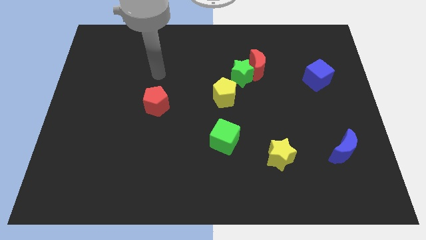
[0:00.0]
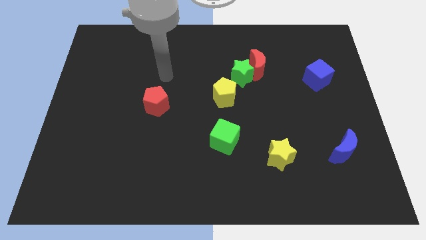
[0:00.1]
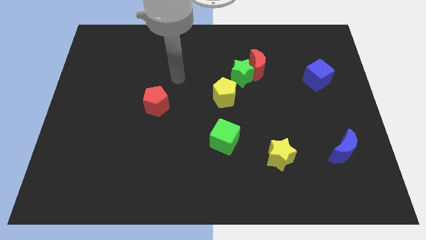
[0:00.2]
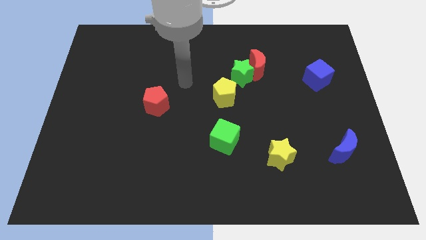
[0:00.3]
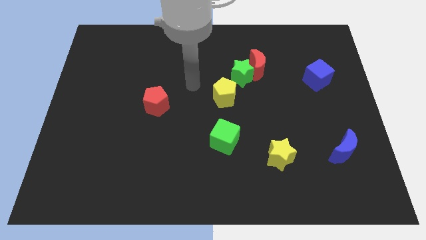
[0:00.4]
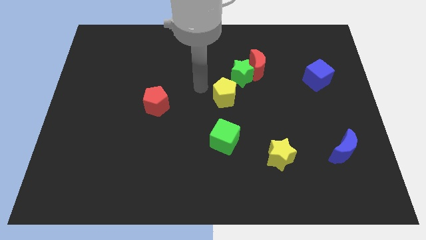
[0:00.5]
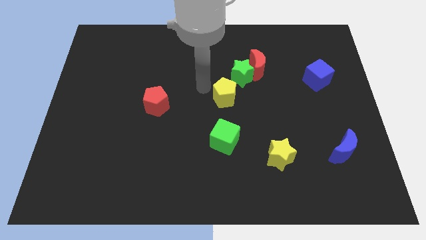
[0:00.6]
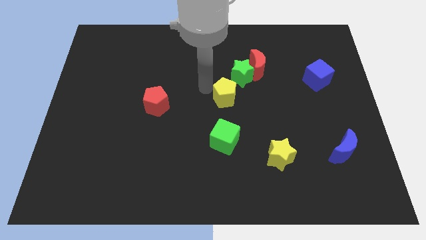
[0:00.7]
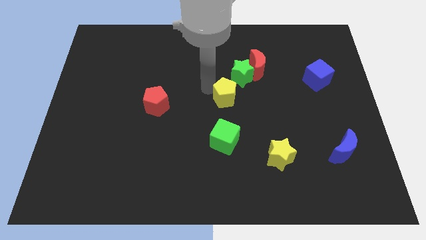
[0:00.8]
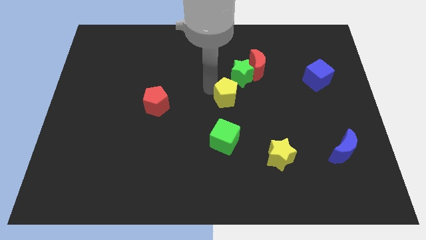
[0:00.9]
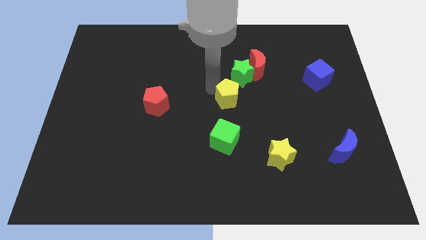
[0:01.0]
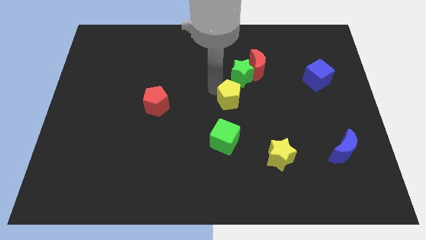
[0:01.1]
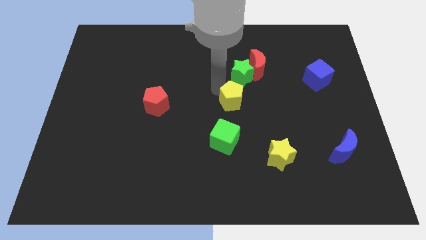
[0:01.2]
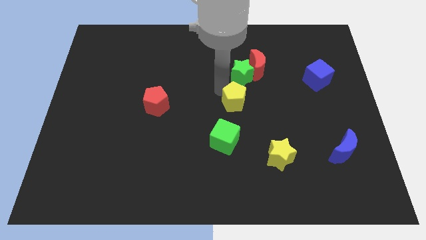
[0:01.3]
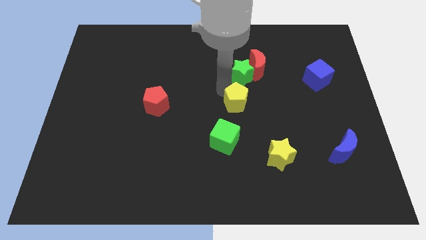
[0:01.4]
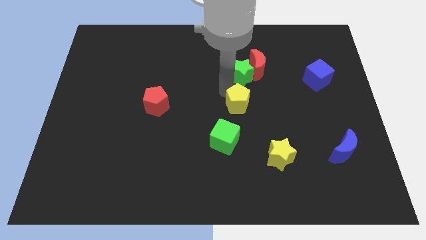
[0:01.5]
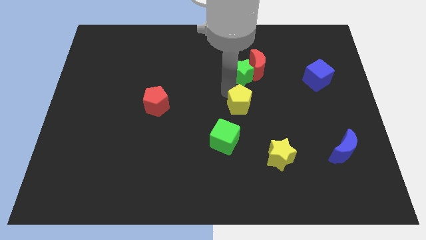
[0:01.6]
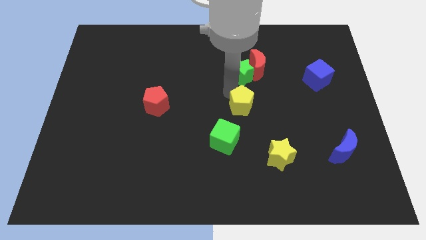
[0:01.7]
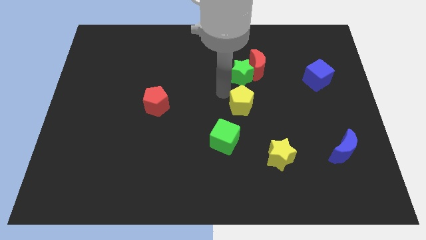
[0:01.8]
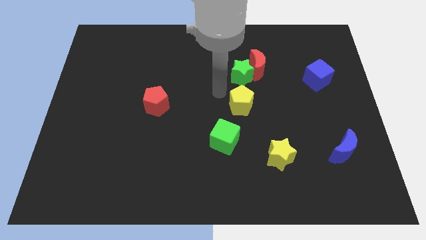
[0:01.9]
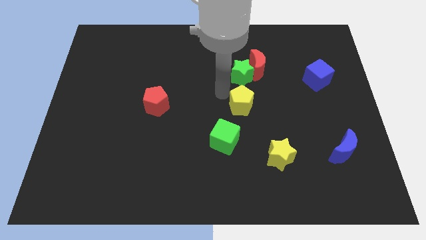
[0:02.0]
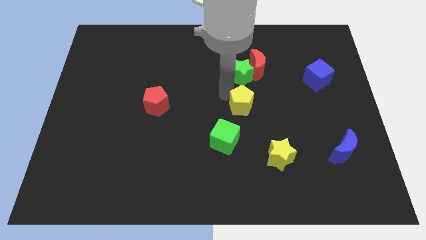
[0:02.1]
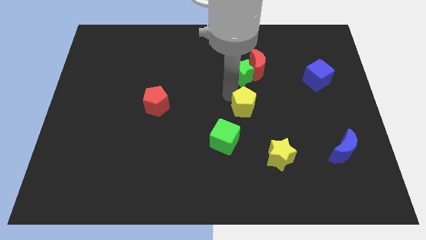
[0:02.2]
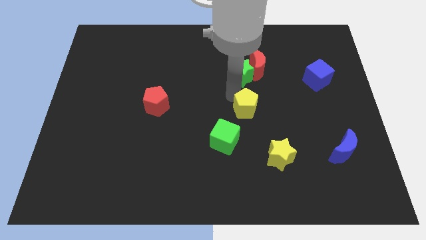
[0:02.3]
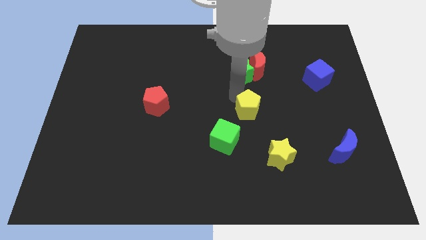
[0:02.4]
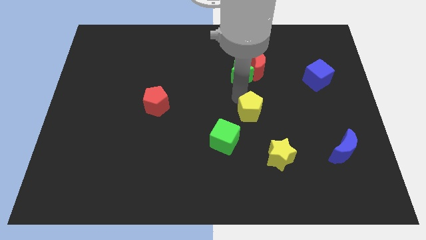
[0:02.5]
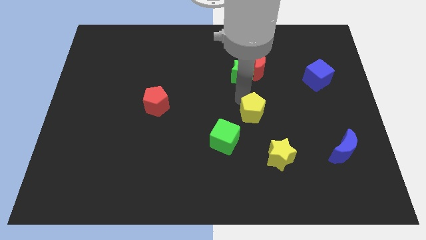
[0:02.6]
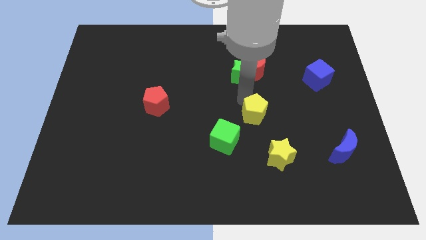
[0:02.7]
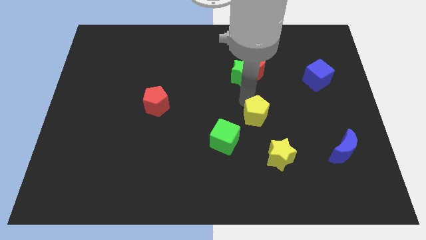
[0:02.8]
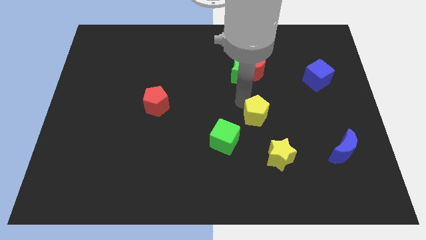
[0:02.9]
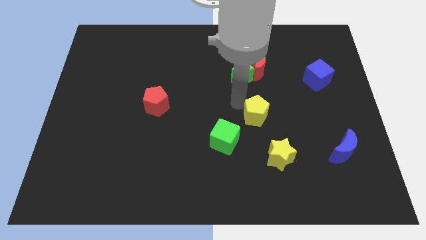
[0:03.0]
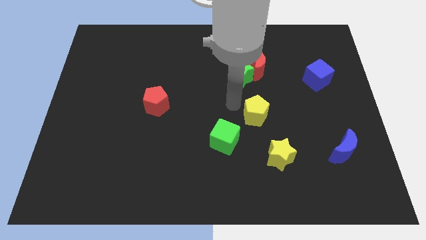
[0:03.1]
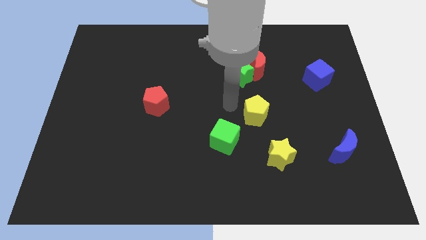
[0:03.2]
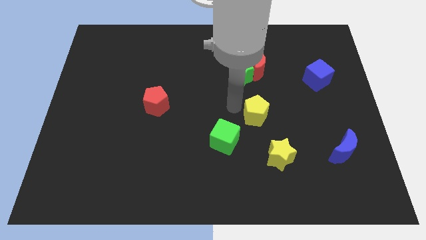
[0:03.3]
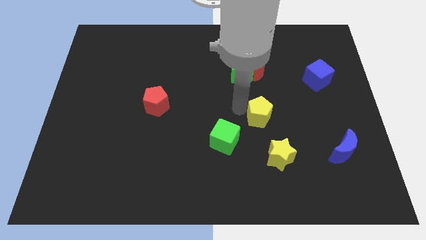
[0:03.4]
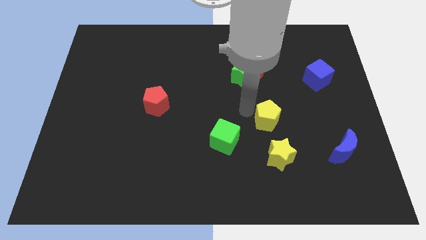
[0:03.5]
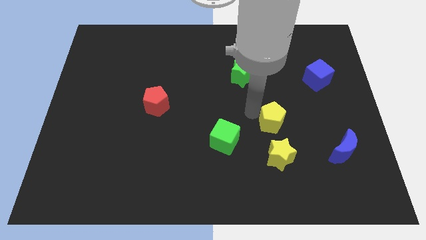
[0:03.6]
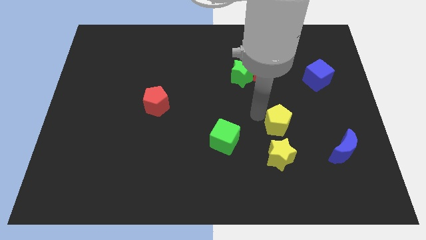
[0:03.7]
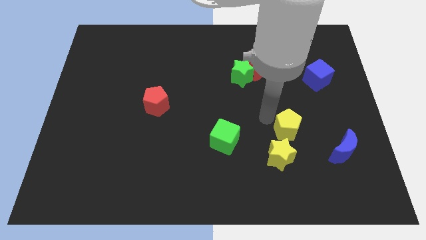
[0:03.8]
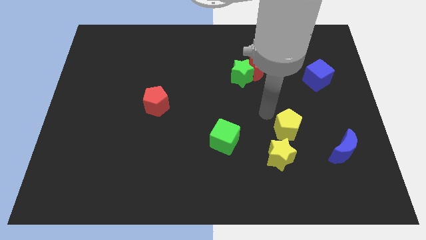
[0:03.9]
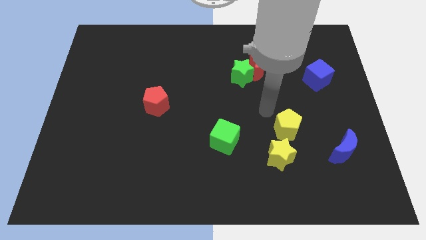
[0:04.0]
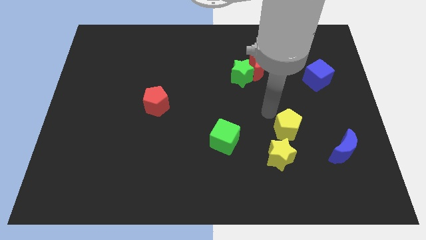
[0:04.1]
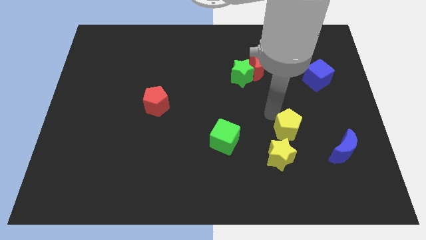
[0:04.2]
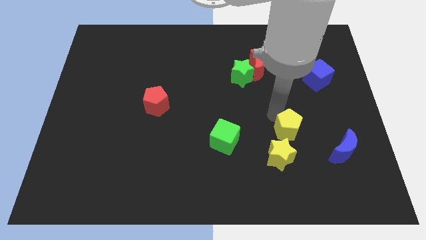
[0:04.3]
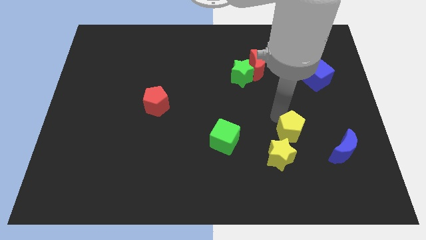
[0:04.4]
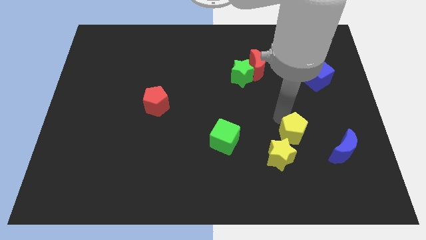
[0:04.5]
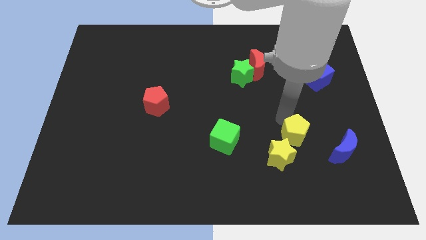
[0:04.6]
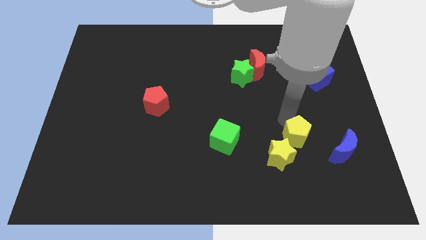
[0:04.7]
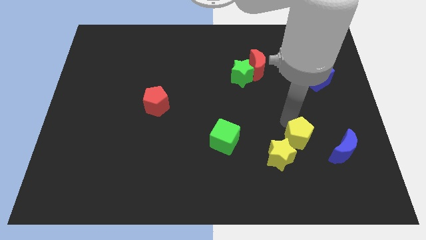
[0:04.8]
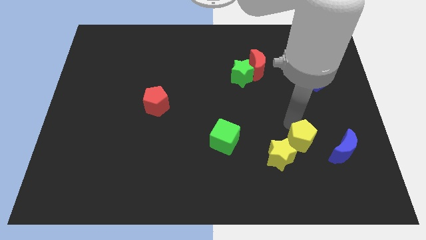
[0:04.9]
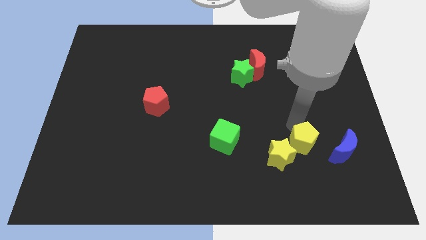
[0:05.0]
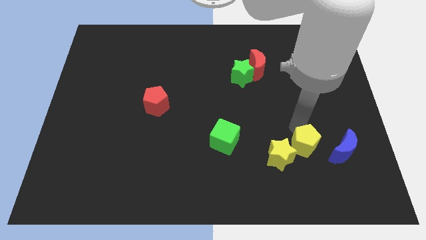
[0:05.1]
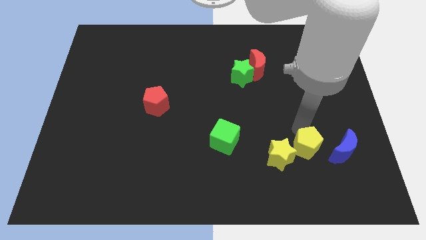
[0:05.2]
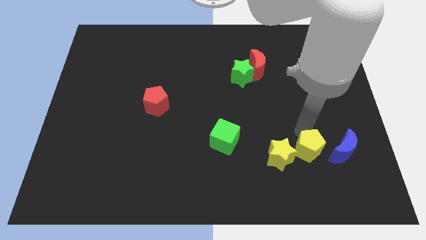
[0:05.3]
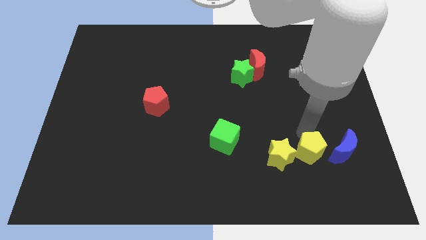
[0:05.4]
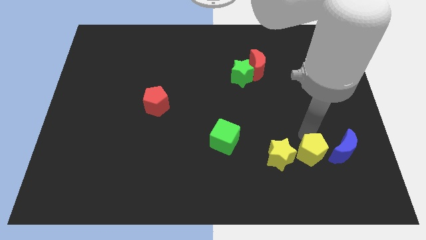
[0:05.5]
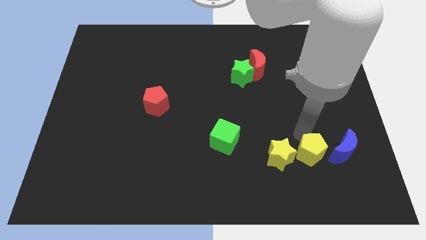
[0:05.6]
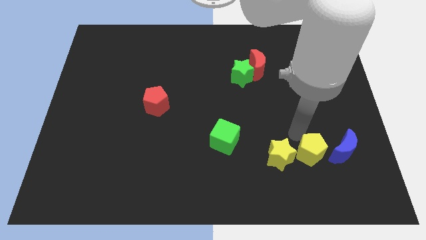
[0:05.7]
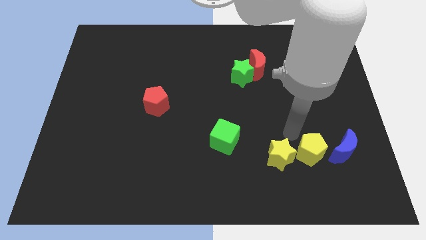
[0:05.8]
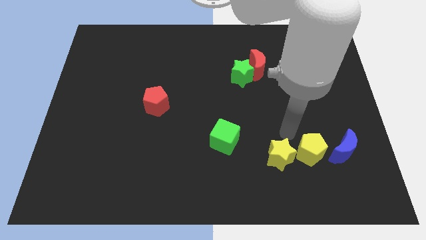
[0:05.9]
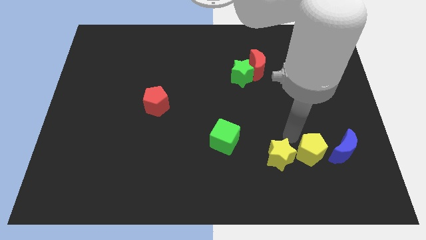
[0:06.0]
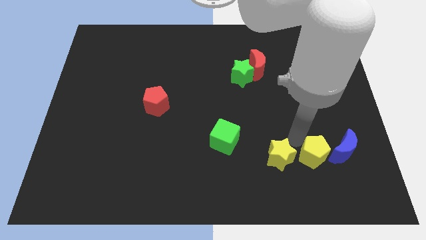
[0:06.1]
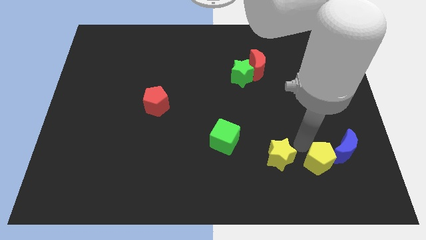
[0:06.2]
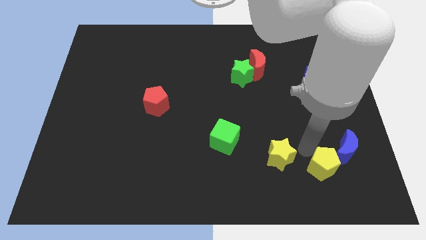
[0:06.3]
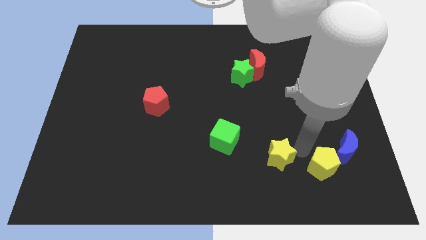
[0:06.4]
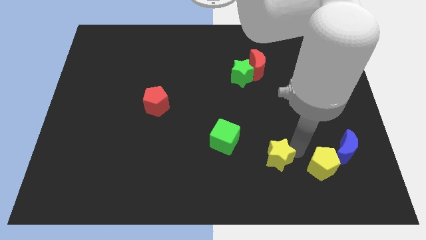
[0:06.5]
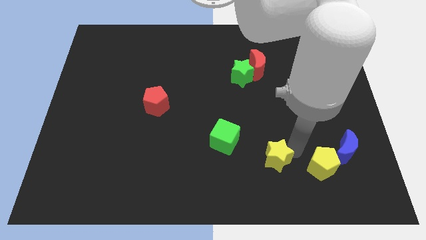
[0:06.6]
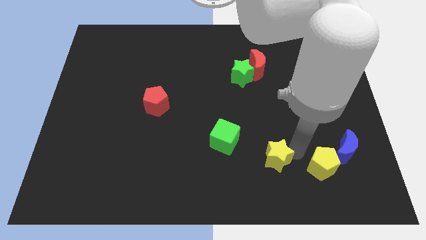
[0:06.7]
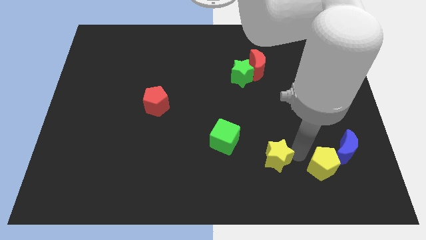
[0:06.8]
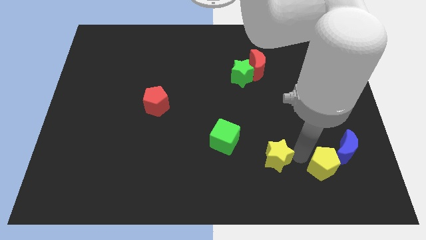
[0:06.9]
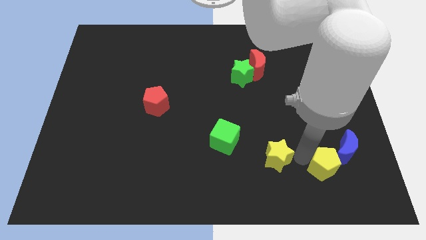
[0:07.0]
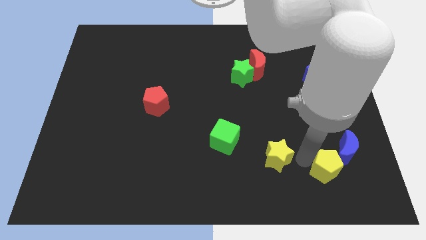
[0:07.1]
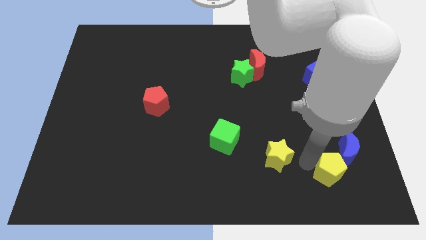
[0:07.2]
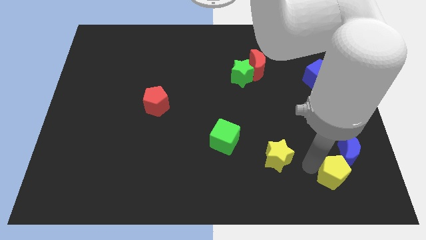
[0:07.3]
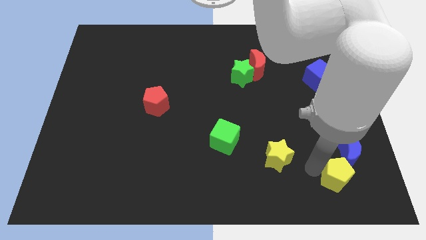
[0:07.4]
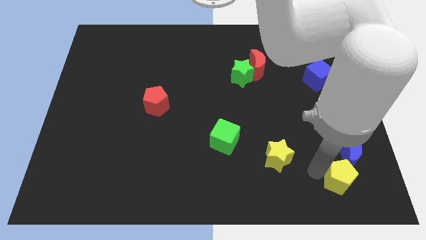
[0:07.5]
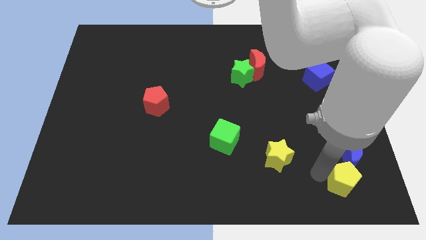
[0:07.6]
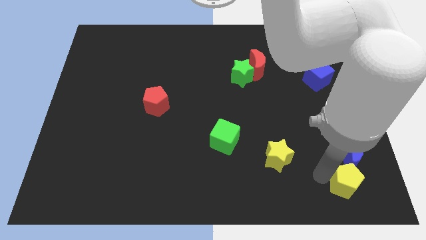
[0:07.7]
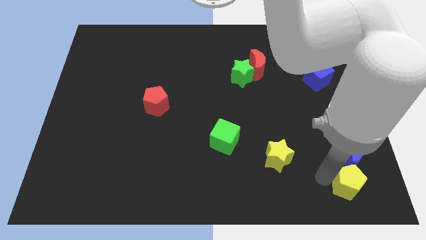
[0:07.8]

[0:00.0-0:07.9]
put the yellow pentagon to the bottom right of the board
